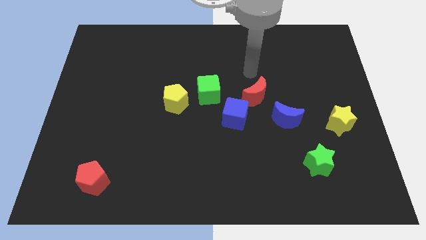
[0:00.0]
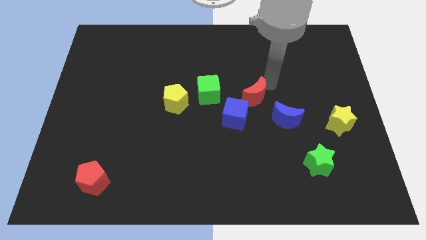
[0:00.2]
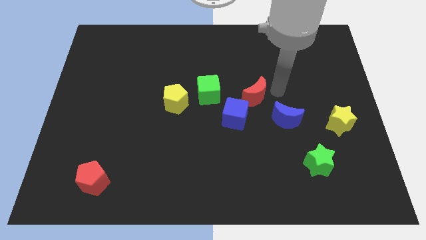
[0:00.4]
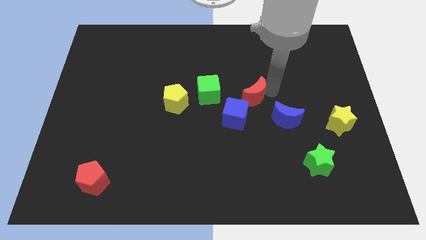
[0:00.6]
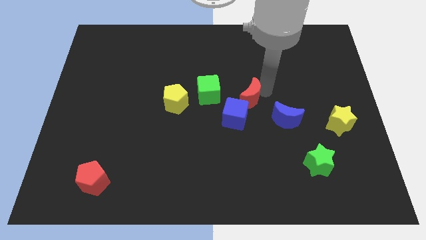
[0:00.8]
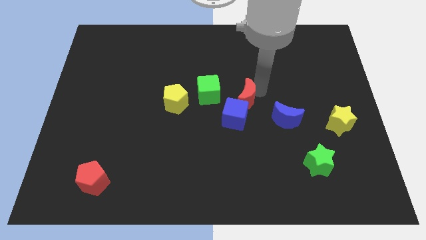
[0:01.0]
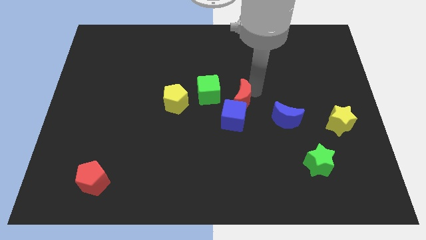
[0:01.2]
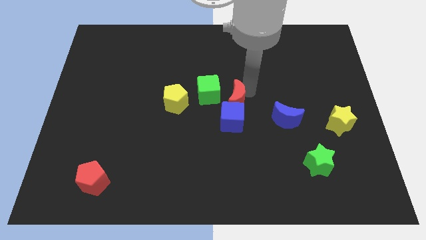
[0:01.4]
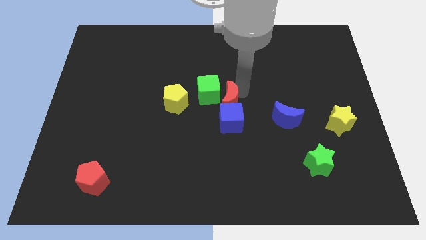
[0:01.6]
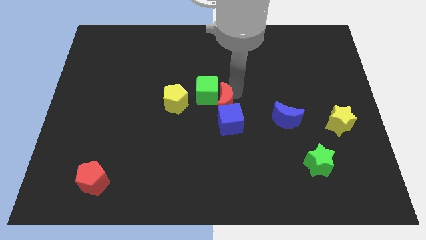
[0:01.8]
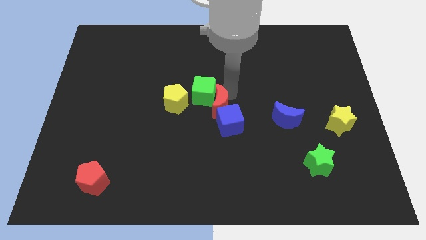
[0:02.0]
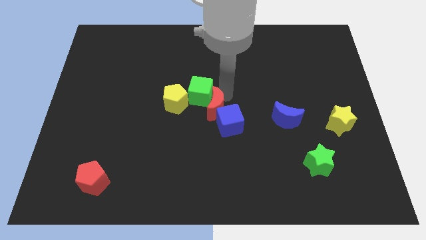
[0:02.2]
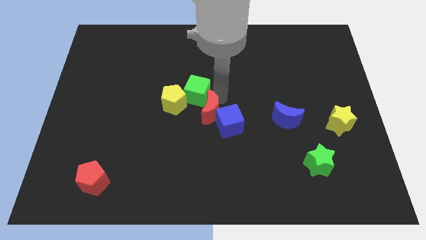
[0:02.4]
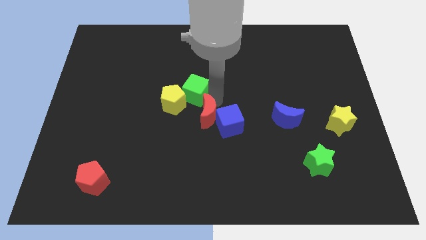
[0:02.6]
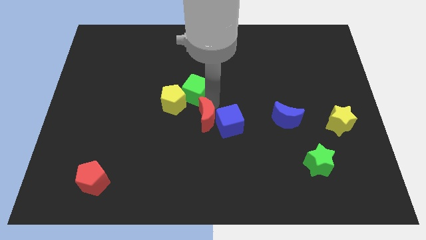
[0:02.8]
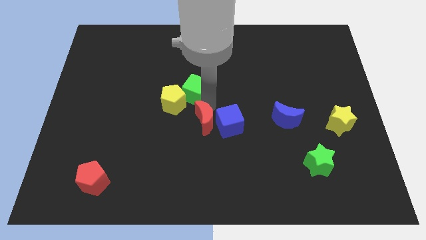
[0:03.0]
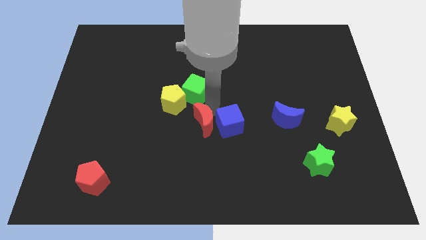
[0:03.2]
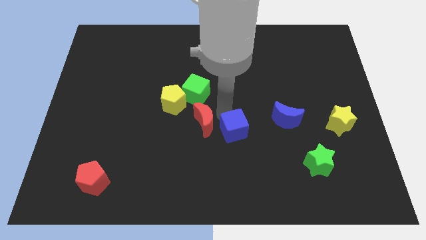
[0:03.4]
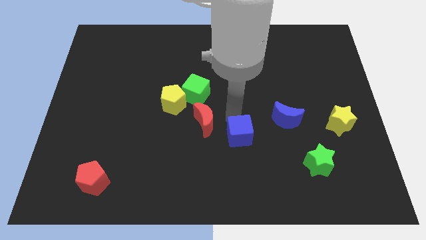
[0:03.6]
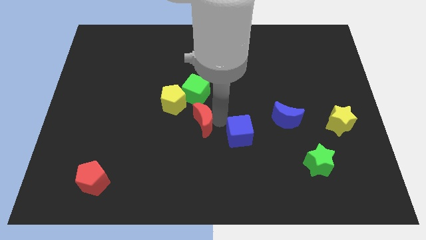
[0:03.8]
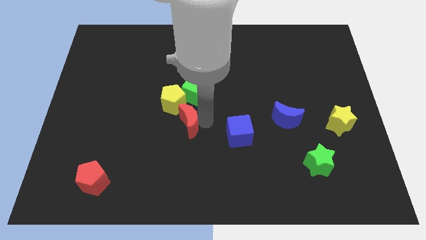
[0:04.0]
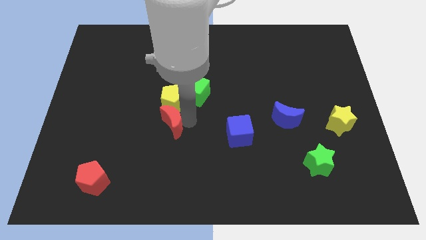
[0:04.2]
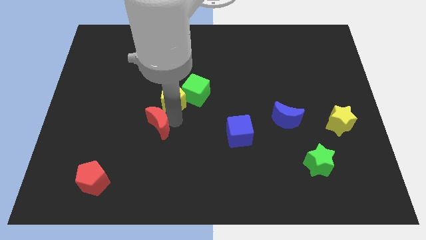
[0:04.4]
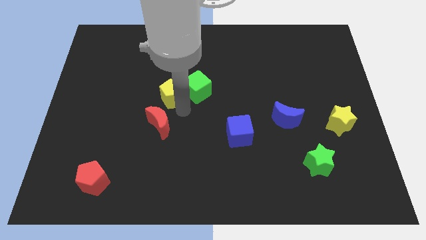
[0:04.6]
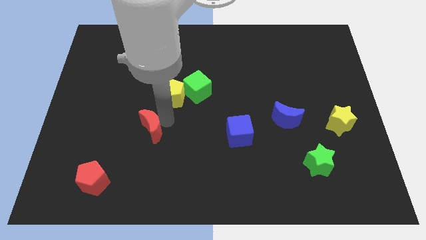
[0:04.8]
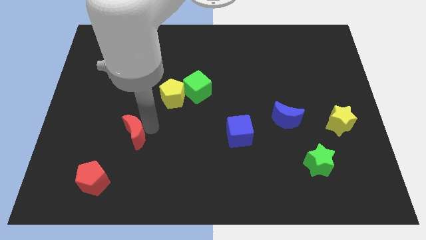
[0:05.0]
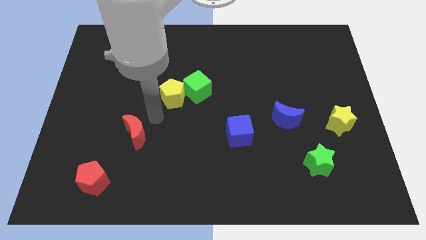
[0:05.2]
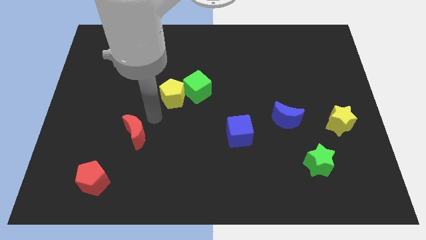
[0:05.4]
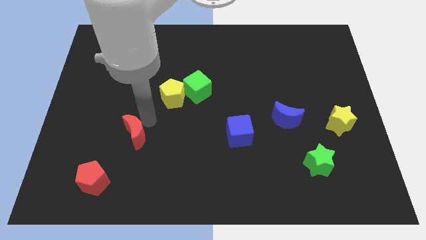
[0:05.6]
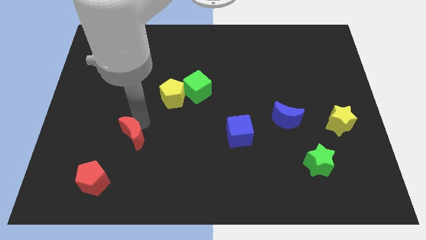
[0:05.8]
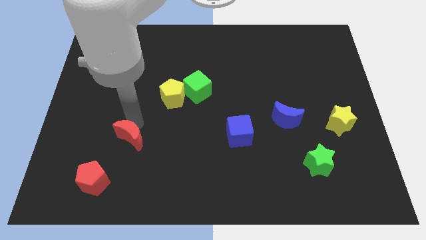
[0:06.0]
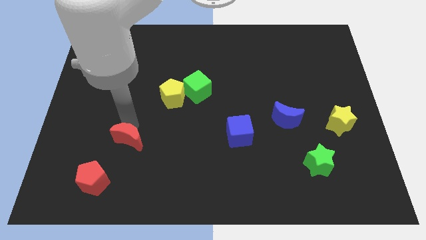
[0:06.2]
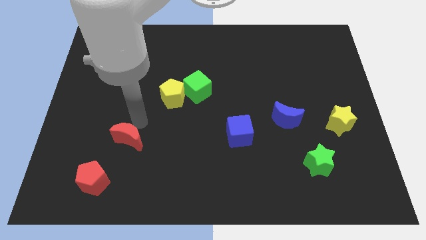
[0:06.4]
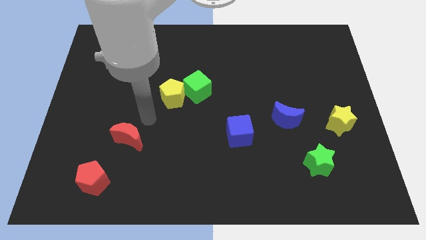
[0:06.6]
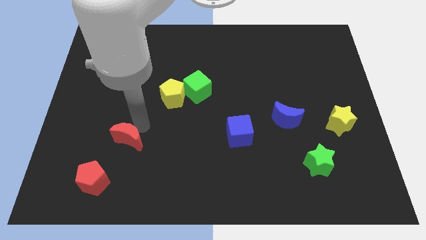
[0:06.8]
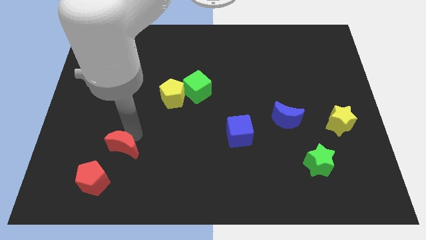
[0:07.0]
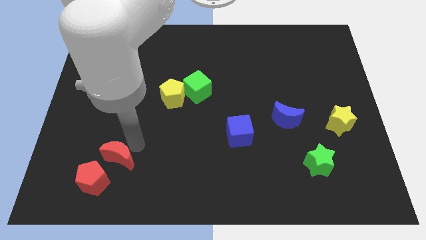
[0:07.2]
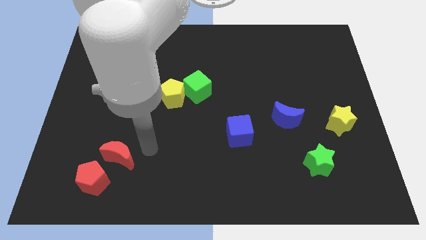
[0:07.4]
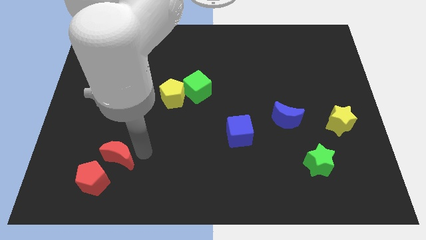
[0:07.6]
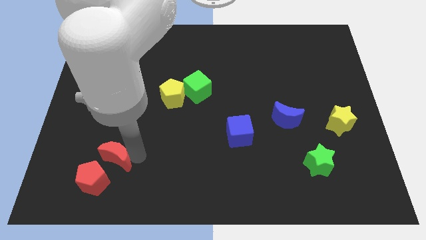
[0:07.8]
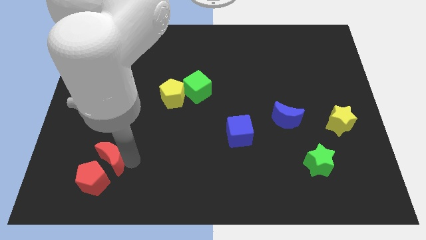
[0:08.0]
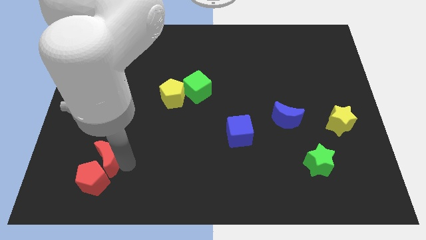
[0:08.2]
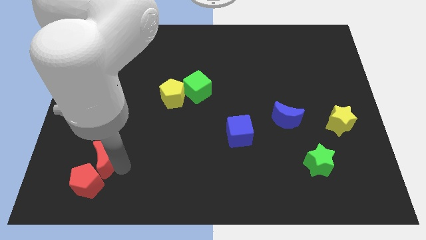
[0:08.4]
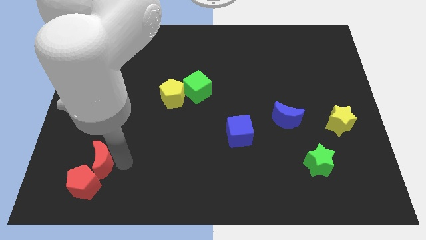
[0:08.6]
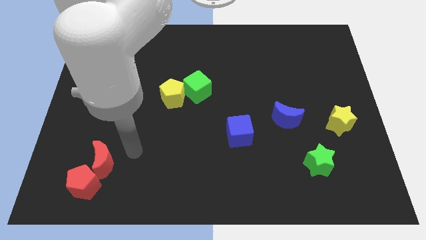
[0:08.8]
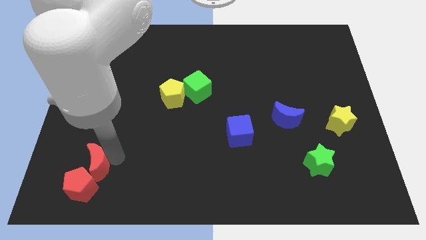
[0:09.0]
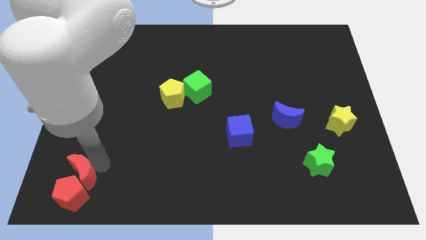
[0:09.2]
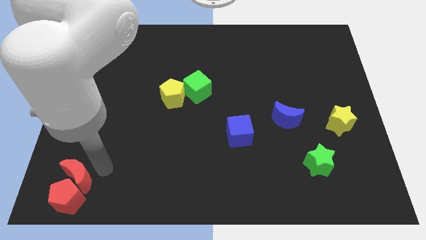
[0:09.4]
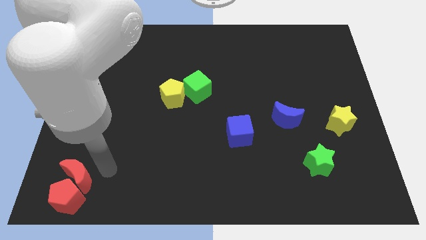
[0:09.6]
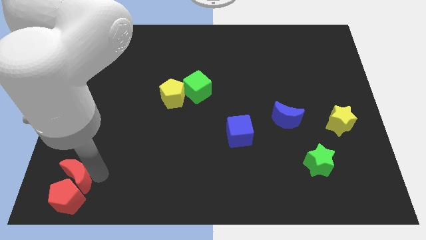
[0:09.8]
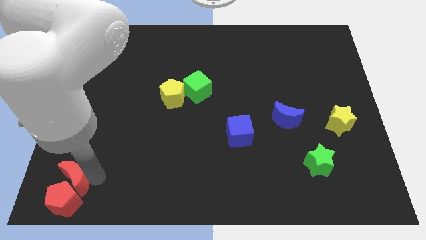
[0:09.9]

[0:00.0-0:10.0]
slide the red moon to the bottom left corner

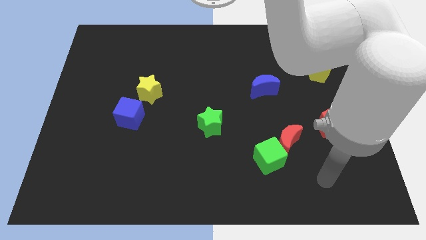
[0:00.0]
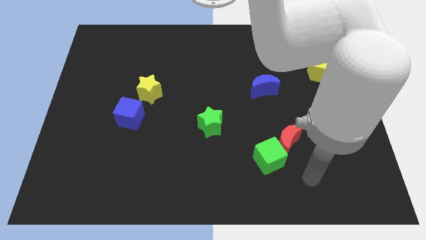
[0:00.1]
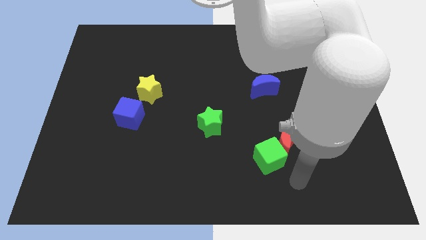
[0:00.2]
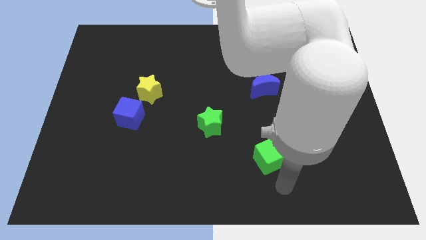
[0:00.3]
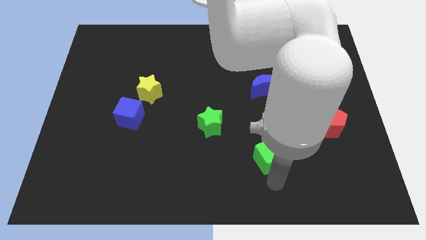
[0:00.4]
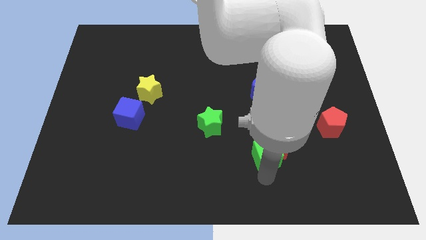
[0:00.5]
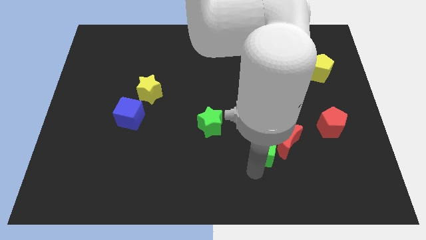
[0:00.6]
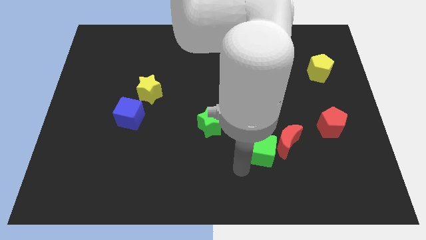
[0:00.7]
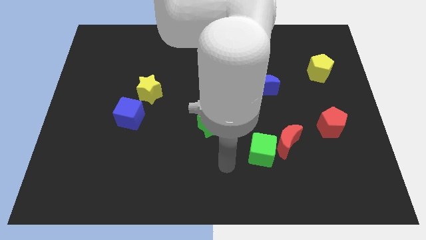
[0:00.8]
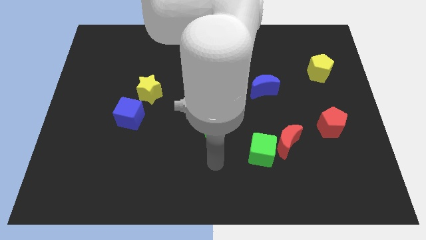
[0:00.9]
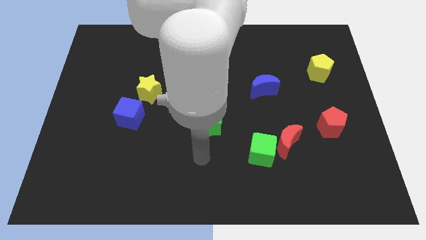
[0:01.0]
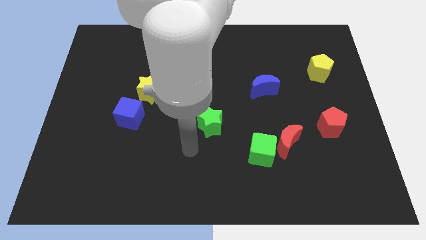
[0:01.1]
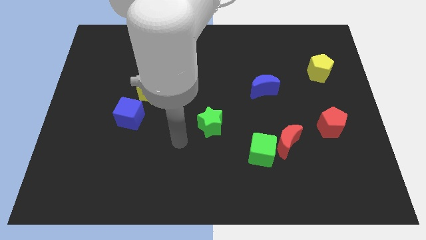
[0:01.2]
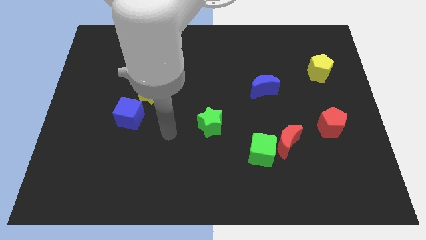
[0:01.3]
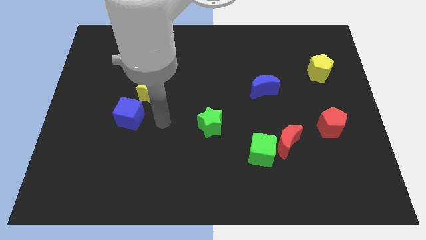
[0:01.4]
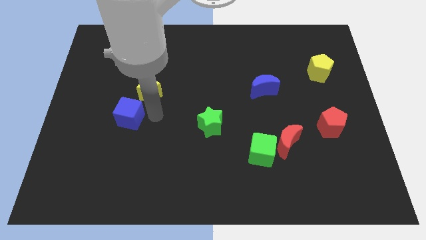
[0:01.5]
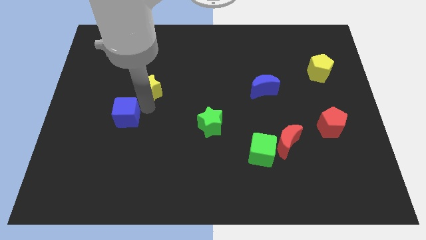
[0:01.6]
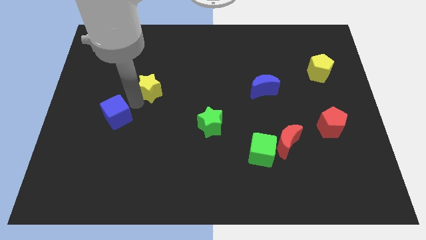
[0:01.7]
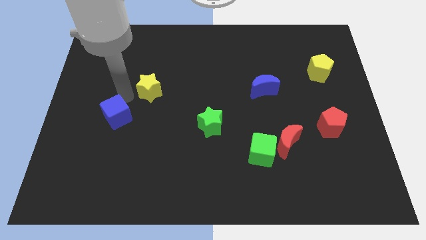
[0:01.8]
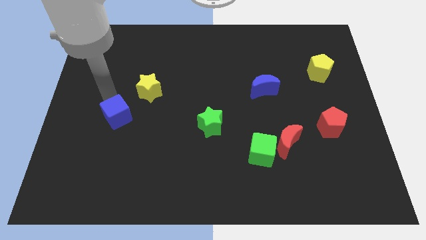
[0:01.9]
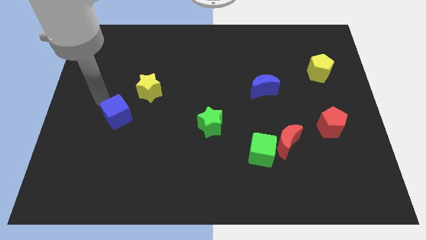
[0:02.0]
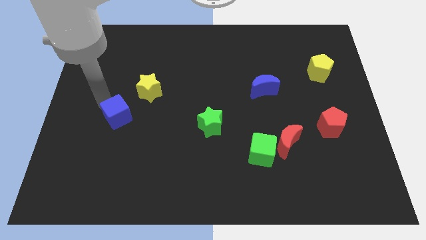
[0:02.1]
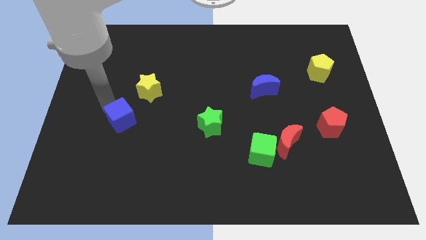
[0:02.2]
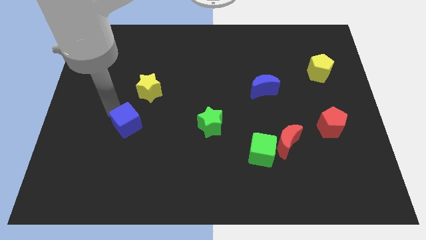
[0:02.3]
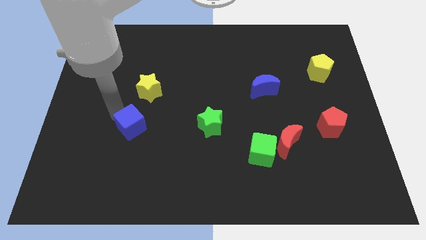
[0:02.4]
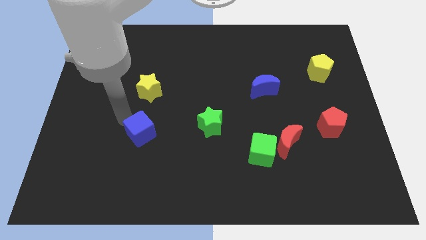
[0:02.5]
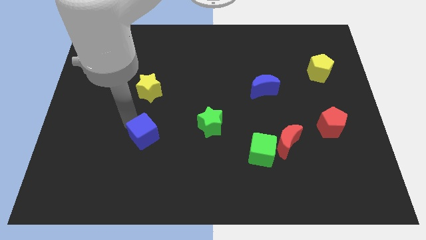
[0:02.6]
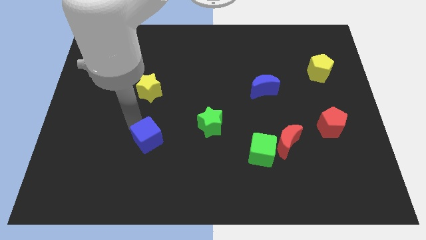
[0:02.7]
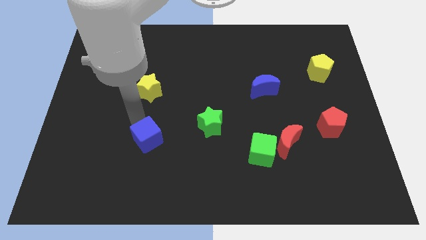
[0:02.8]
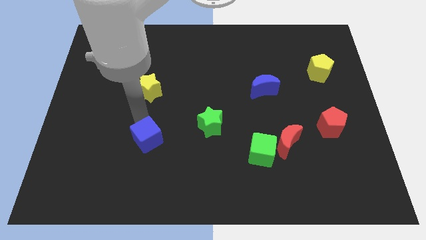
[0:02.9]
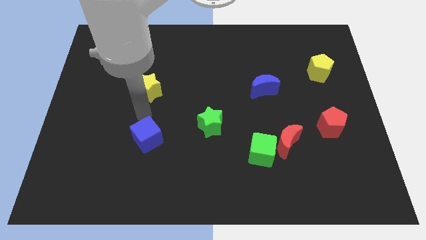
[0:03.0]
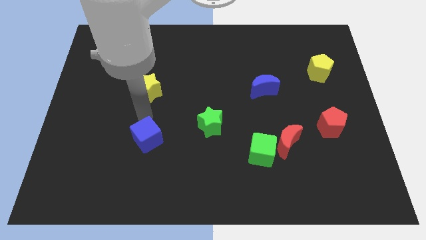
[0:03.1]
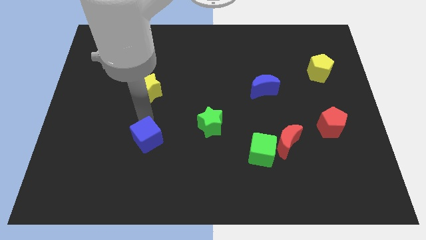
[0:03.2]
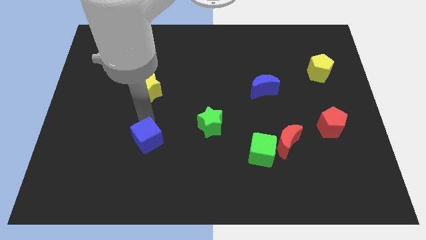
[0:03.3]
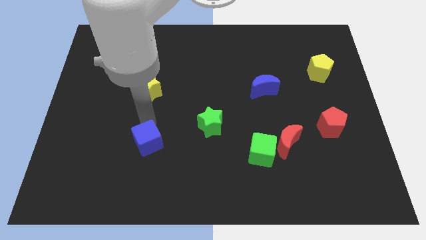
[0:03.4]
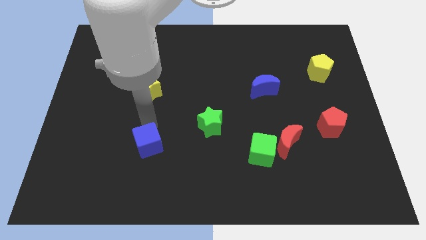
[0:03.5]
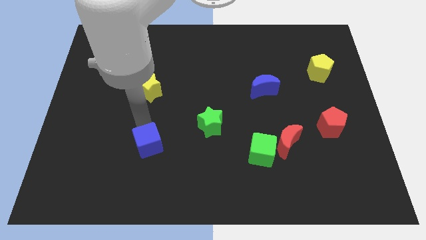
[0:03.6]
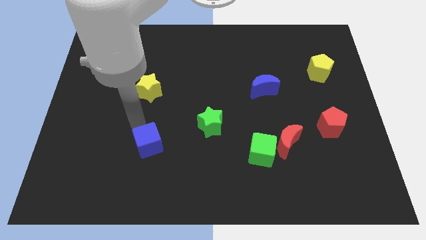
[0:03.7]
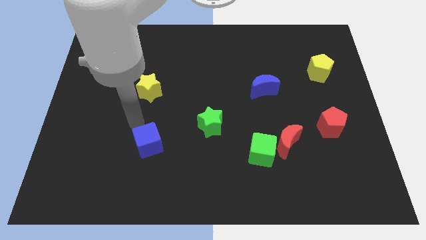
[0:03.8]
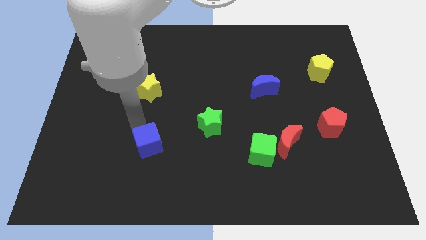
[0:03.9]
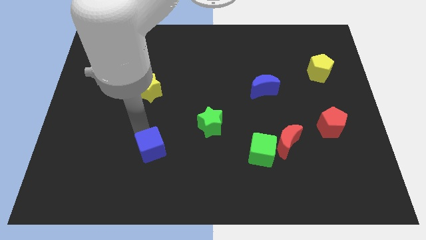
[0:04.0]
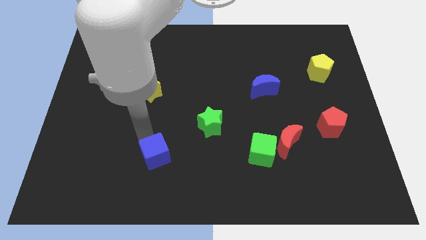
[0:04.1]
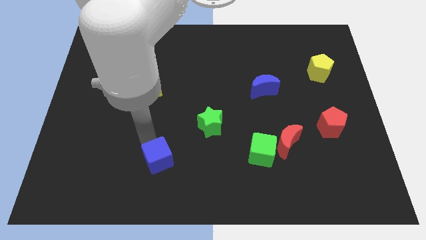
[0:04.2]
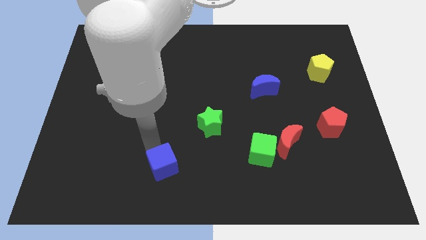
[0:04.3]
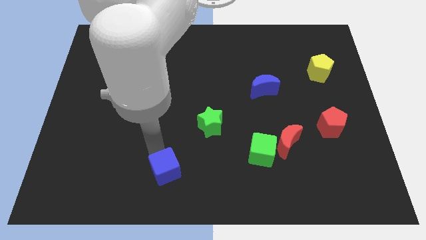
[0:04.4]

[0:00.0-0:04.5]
put the blue cube to the bottom
